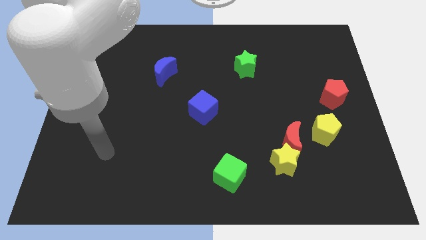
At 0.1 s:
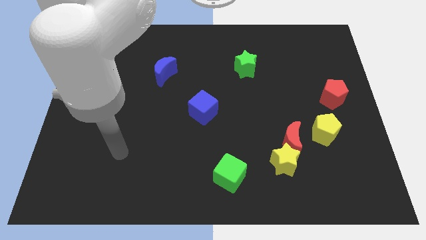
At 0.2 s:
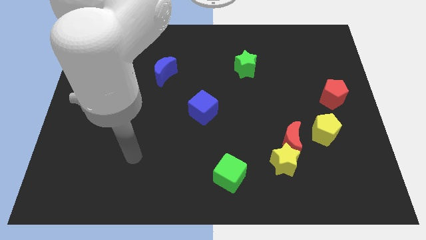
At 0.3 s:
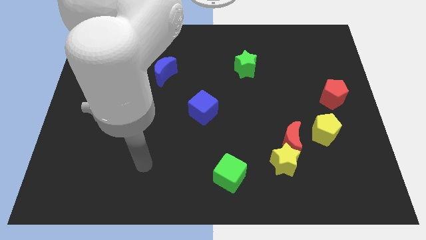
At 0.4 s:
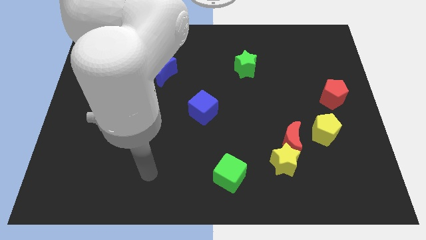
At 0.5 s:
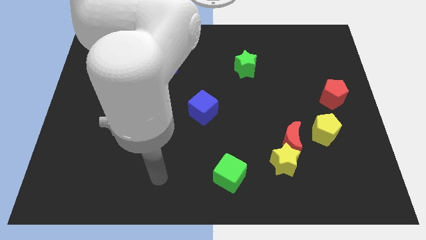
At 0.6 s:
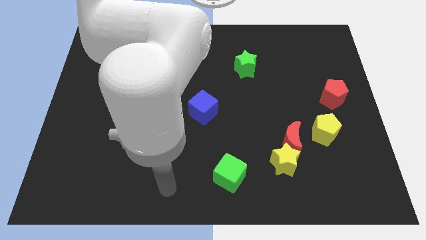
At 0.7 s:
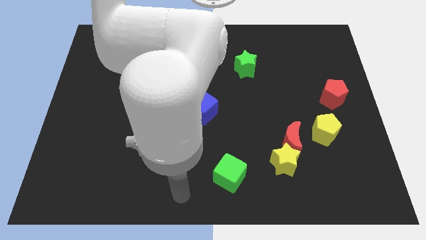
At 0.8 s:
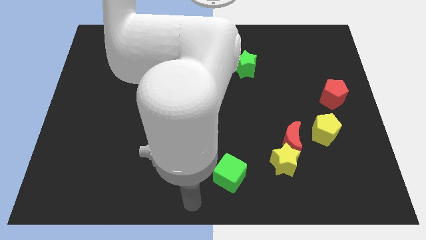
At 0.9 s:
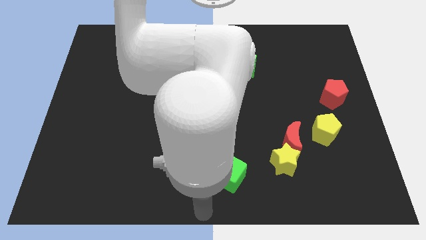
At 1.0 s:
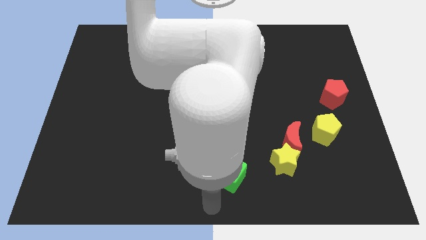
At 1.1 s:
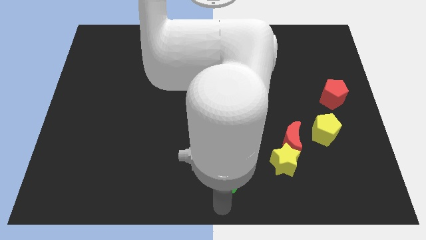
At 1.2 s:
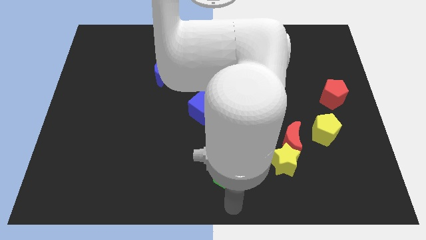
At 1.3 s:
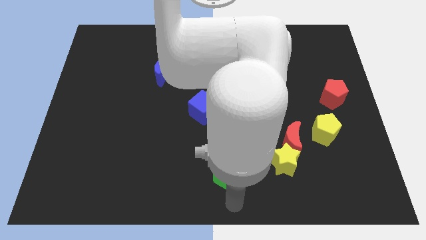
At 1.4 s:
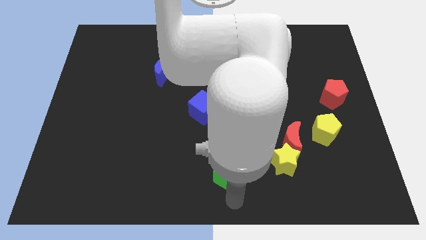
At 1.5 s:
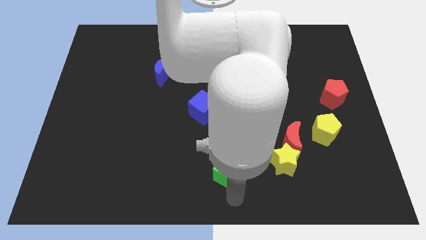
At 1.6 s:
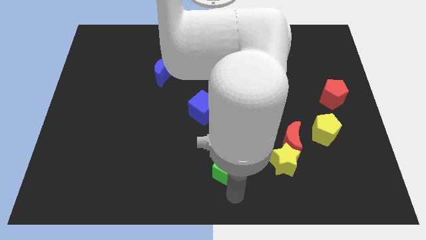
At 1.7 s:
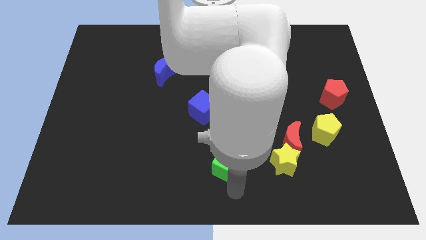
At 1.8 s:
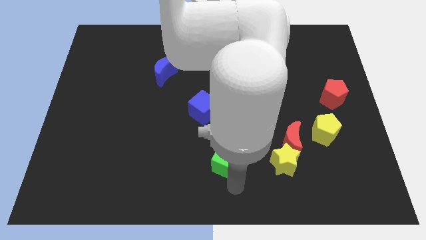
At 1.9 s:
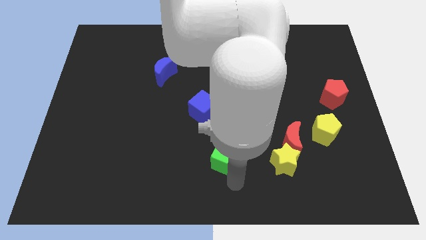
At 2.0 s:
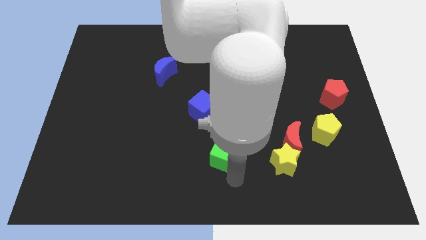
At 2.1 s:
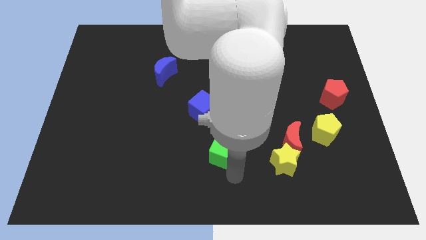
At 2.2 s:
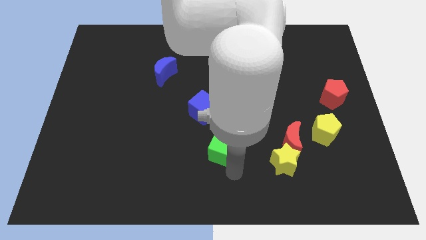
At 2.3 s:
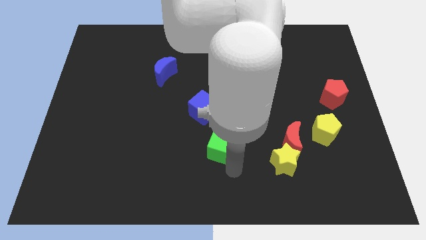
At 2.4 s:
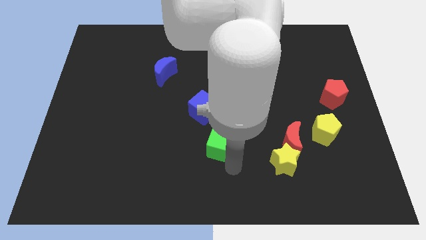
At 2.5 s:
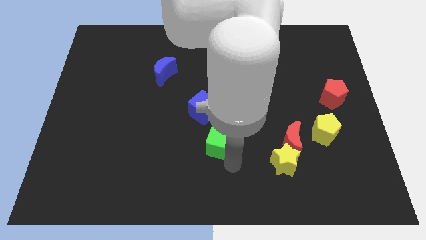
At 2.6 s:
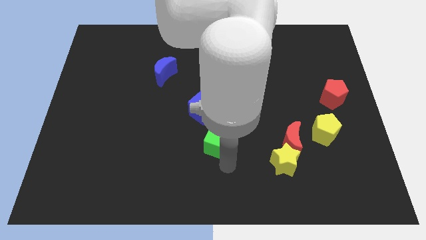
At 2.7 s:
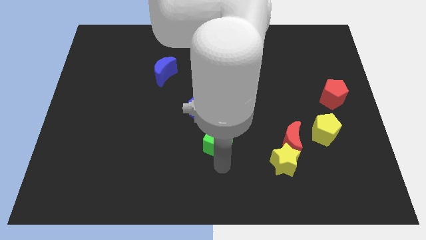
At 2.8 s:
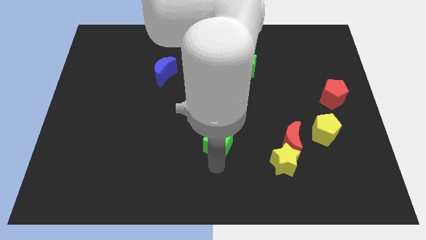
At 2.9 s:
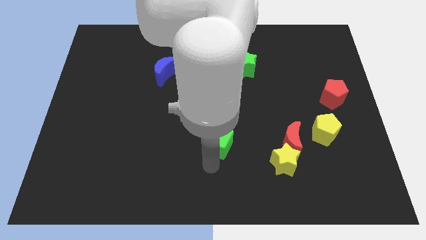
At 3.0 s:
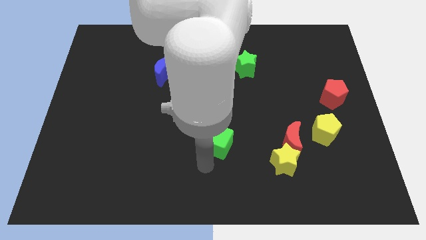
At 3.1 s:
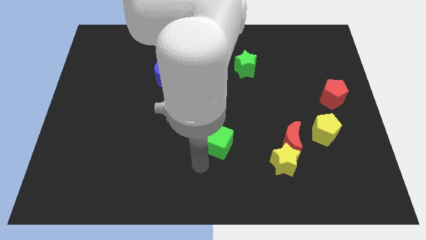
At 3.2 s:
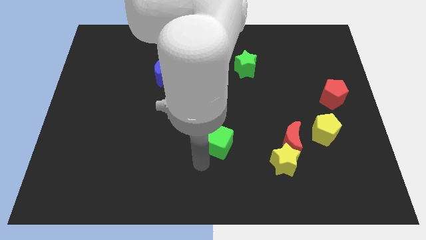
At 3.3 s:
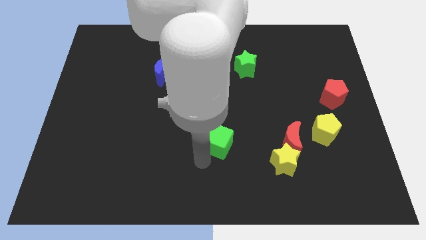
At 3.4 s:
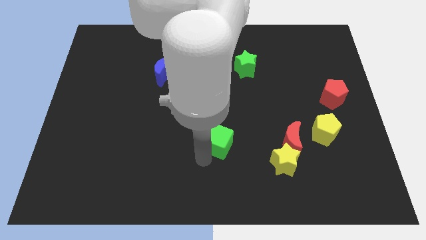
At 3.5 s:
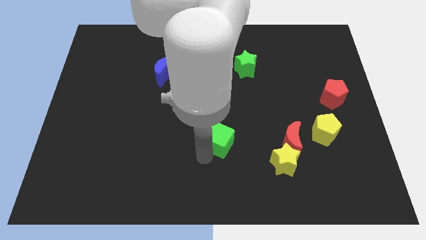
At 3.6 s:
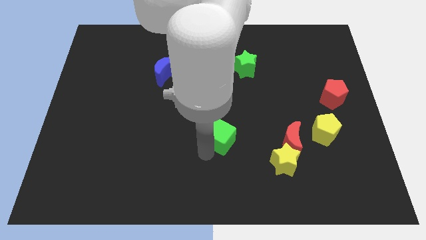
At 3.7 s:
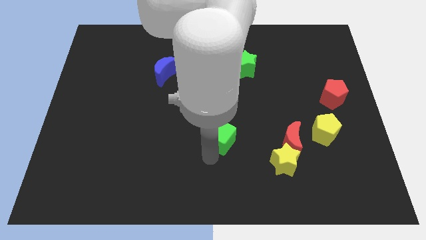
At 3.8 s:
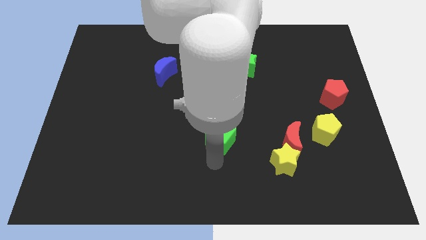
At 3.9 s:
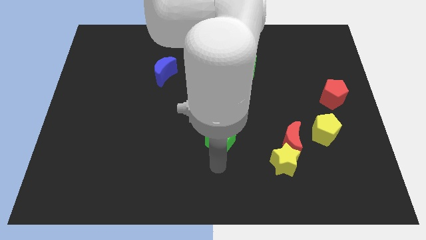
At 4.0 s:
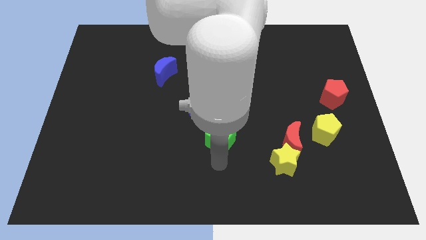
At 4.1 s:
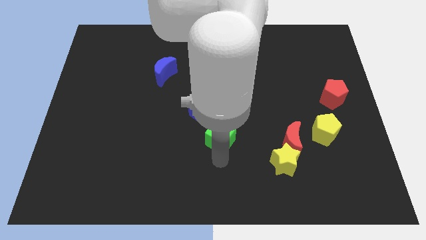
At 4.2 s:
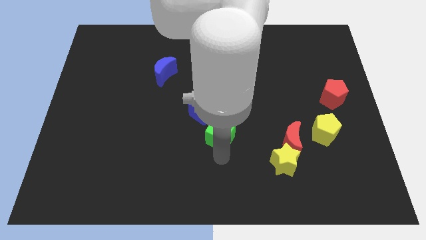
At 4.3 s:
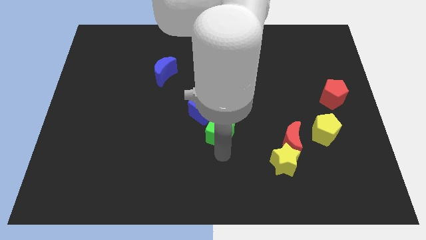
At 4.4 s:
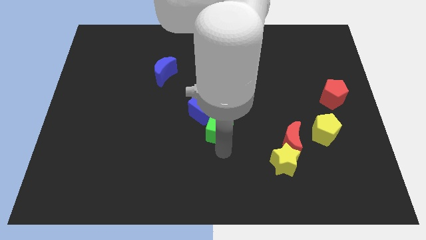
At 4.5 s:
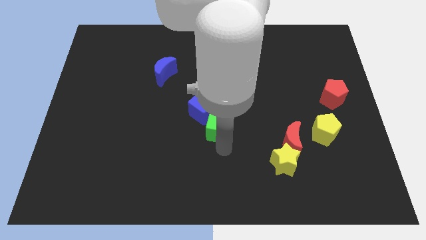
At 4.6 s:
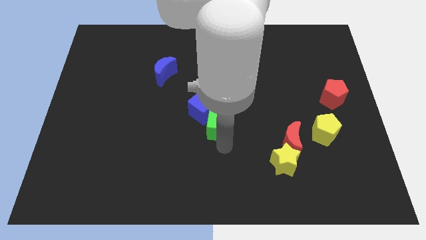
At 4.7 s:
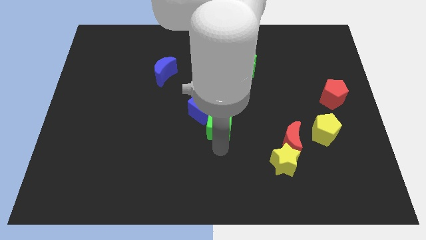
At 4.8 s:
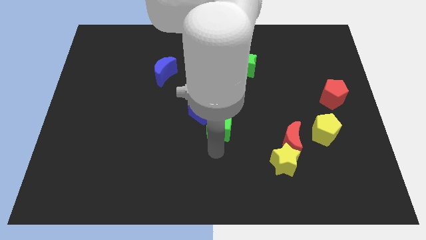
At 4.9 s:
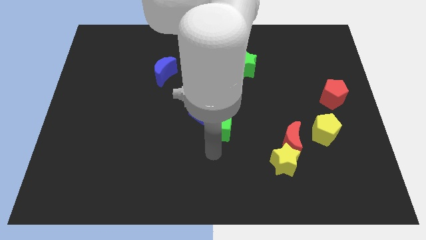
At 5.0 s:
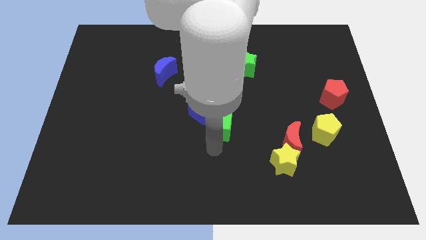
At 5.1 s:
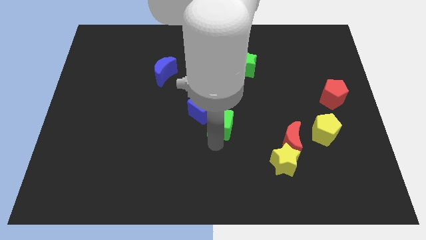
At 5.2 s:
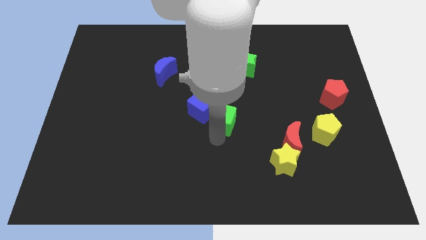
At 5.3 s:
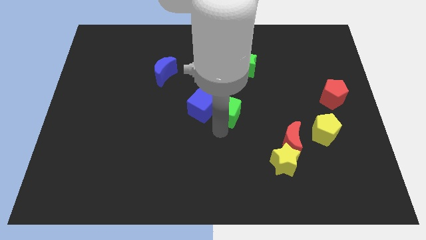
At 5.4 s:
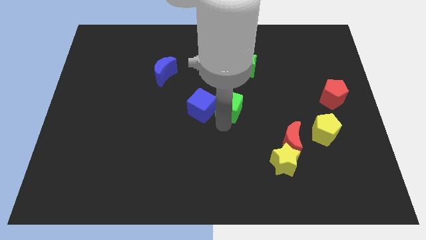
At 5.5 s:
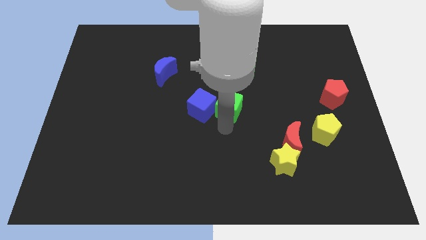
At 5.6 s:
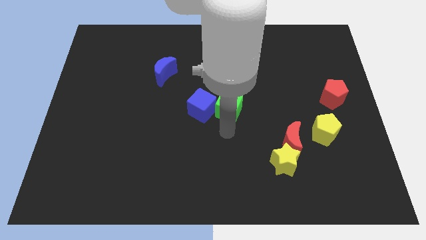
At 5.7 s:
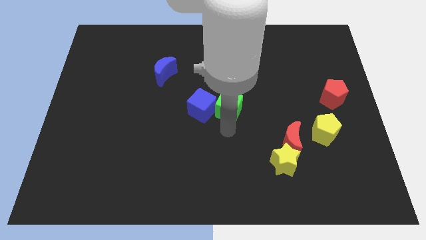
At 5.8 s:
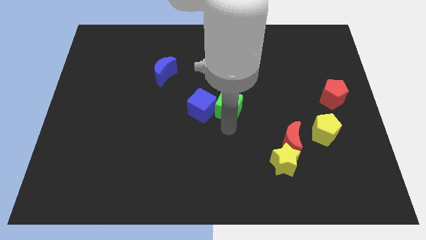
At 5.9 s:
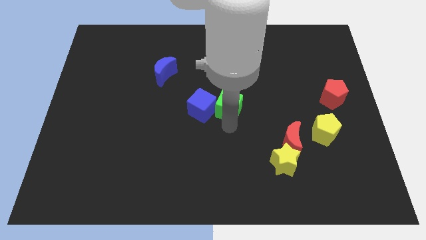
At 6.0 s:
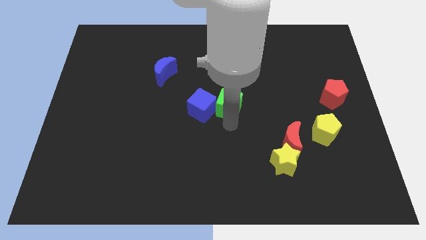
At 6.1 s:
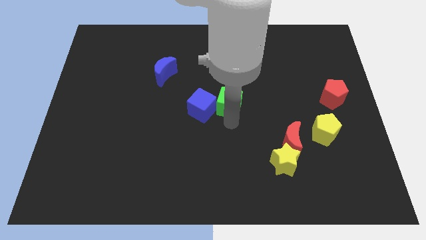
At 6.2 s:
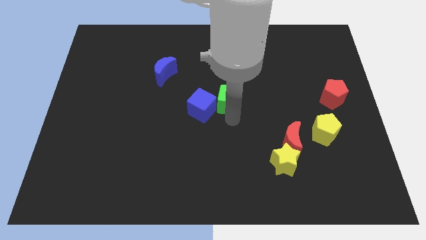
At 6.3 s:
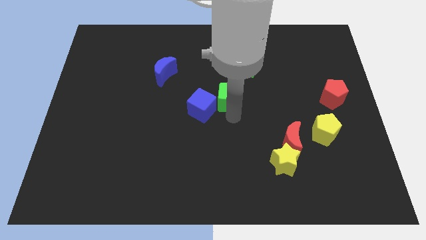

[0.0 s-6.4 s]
slide the green cube upwards

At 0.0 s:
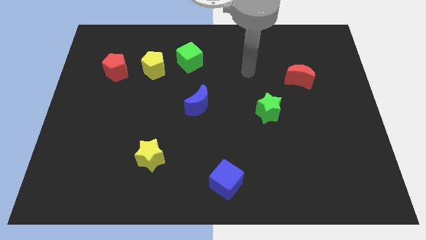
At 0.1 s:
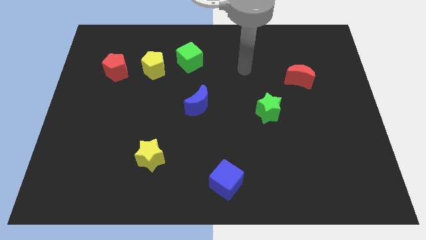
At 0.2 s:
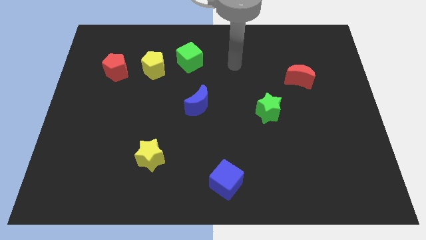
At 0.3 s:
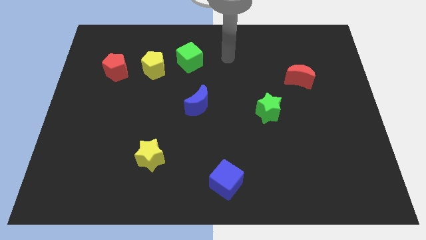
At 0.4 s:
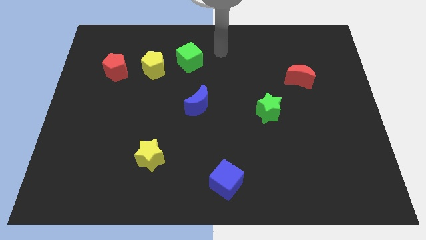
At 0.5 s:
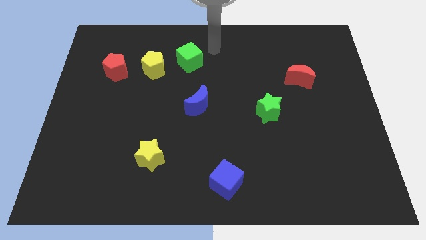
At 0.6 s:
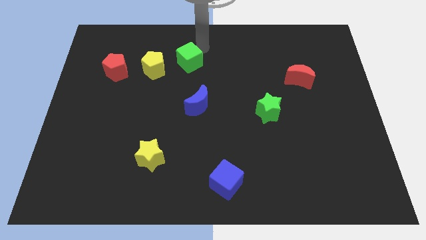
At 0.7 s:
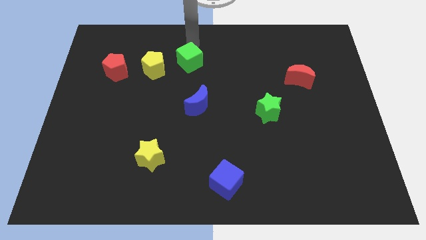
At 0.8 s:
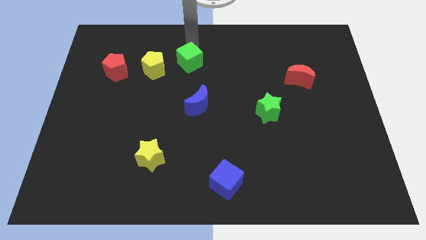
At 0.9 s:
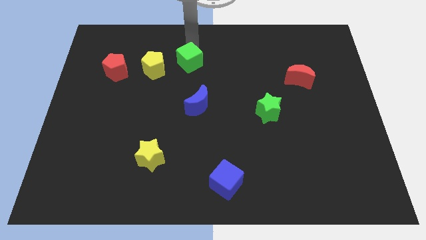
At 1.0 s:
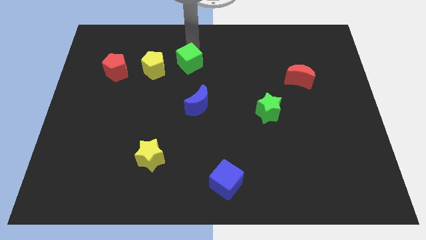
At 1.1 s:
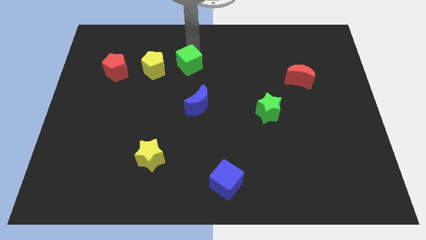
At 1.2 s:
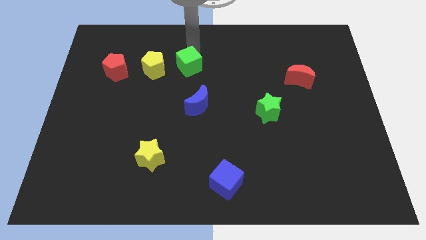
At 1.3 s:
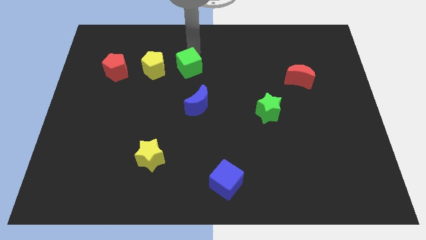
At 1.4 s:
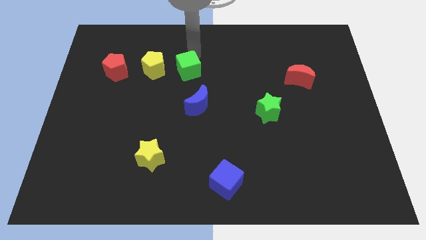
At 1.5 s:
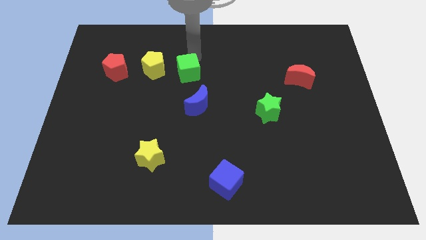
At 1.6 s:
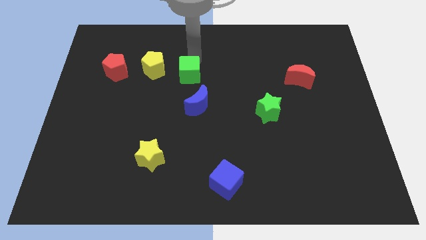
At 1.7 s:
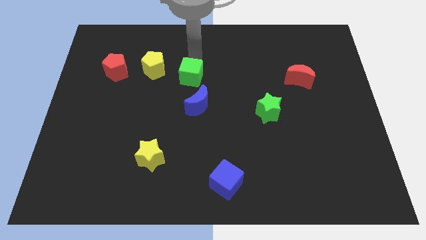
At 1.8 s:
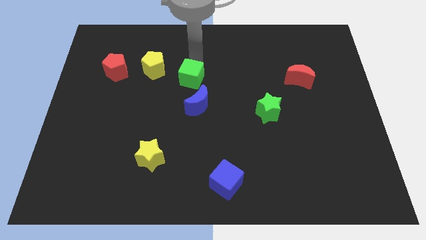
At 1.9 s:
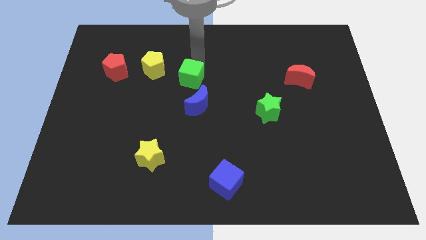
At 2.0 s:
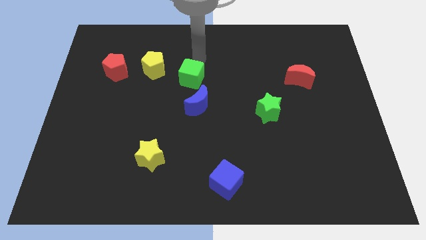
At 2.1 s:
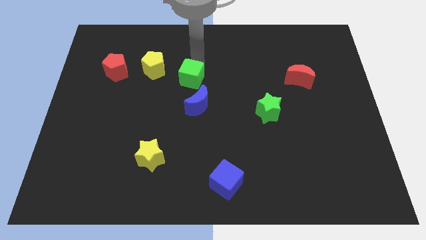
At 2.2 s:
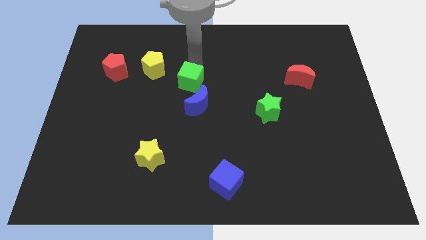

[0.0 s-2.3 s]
slightly move the green cube downwards
